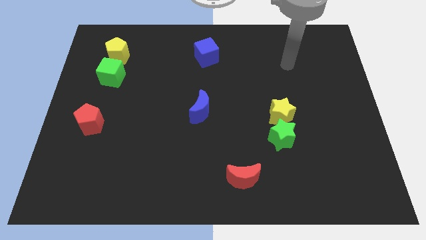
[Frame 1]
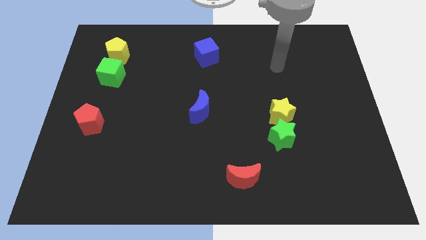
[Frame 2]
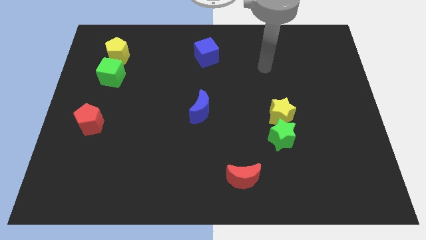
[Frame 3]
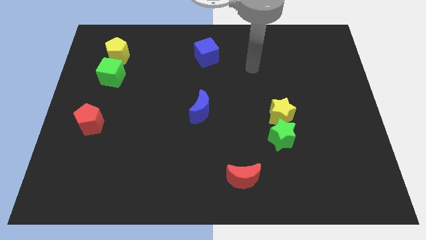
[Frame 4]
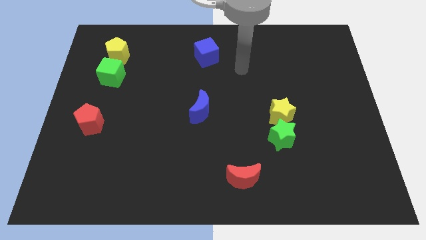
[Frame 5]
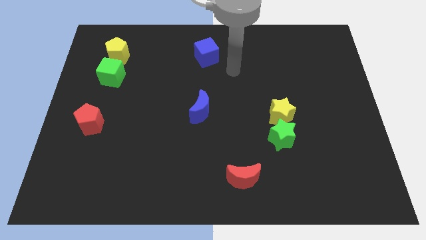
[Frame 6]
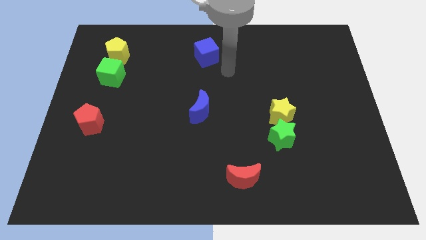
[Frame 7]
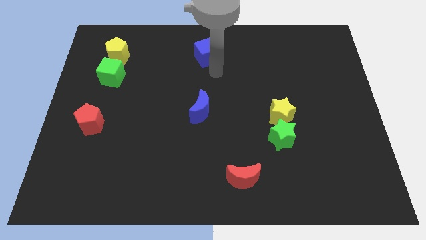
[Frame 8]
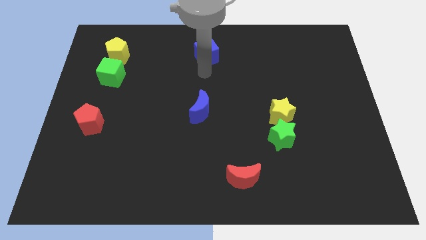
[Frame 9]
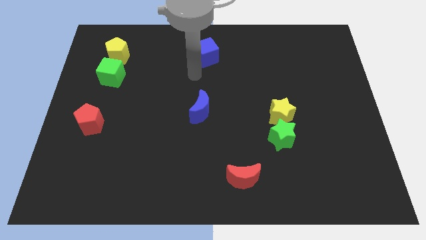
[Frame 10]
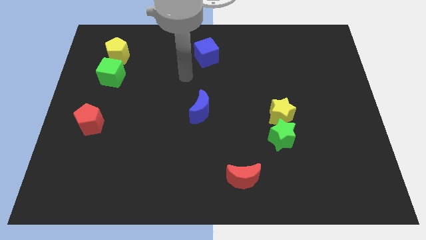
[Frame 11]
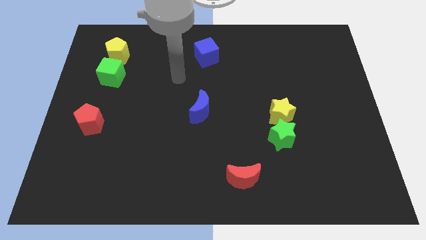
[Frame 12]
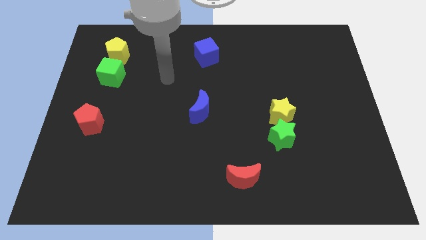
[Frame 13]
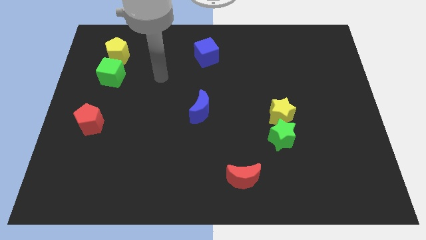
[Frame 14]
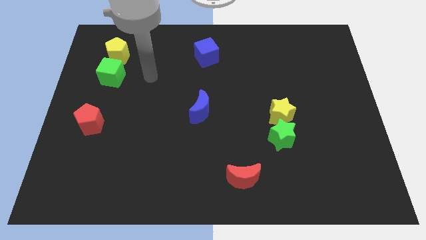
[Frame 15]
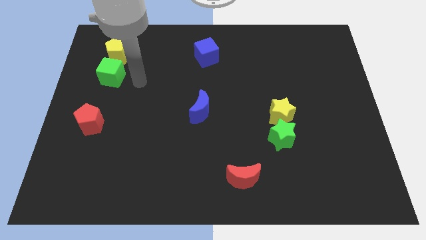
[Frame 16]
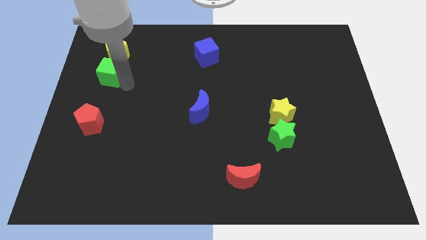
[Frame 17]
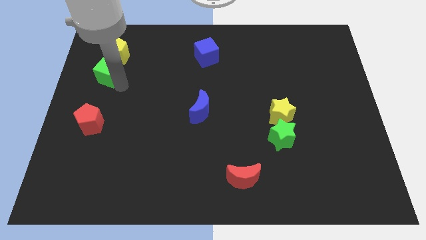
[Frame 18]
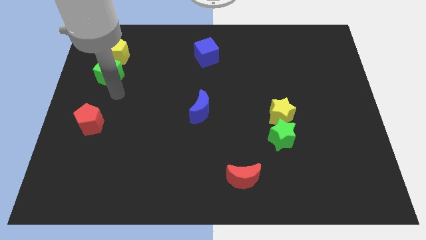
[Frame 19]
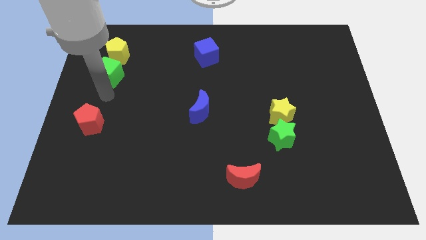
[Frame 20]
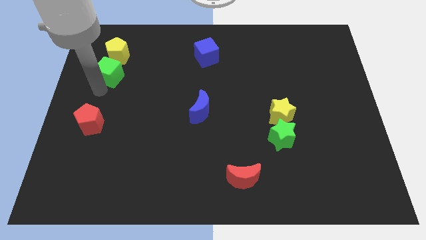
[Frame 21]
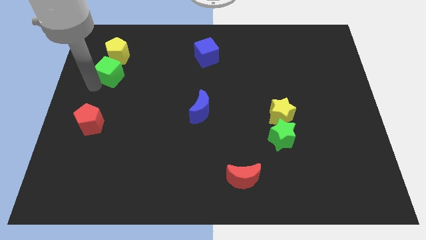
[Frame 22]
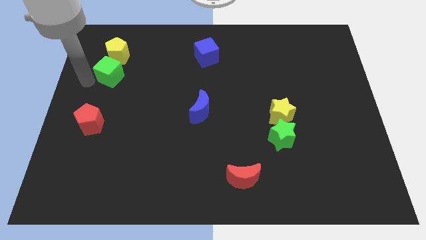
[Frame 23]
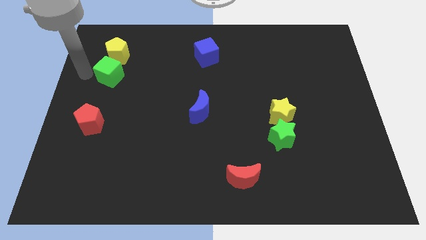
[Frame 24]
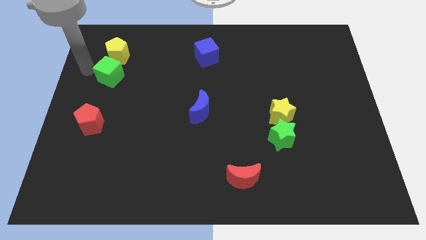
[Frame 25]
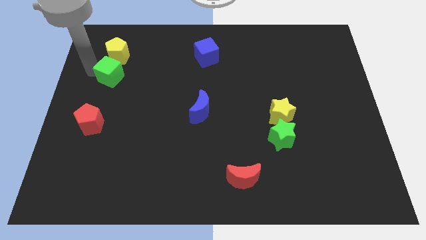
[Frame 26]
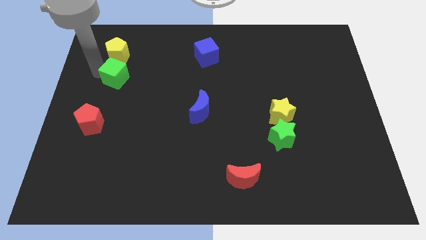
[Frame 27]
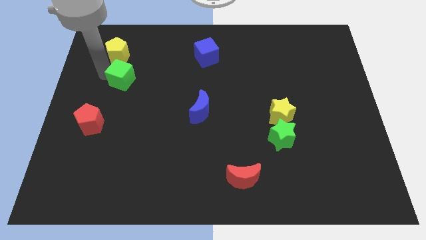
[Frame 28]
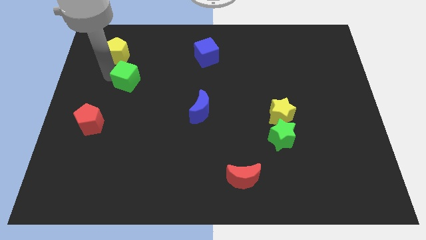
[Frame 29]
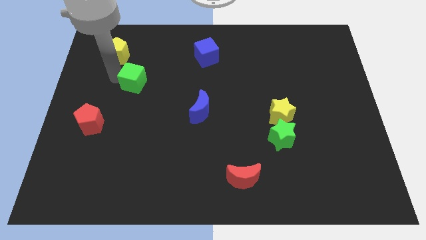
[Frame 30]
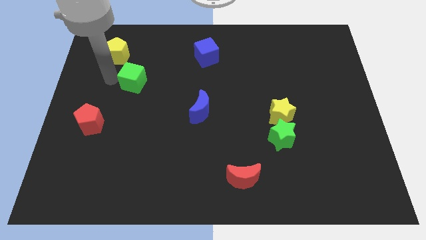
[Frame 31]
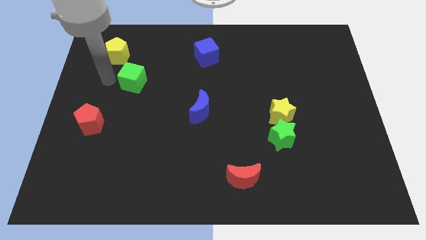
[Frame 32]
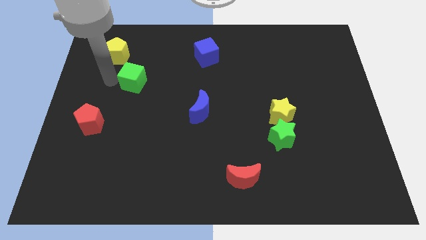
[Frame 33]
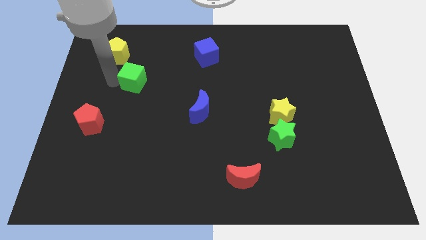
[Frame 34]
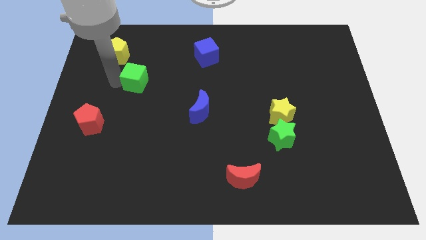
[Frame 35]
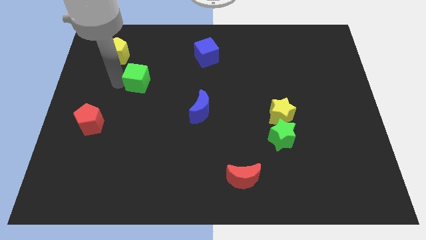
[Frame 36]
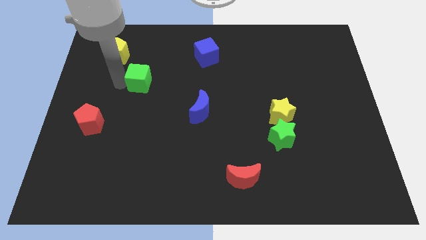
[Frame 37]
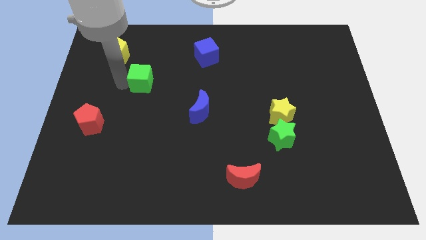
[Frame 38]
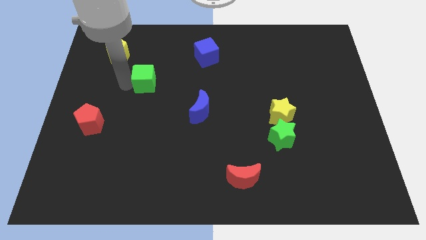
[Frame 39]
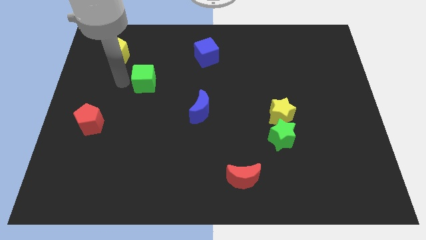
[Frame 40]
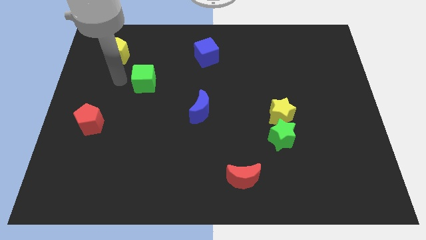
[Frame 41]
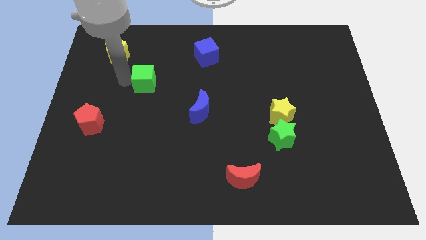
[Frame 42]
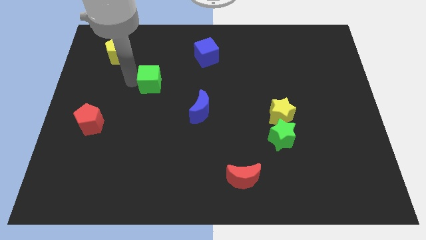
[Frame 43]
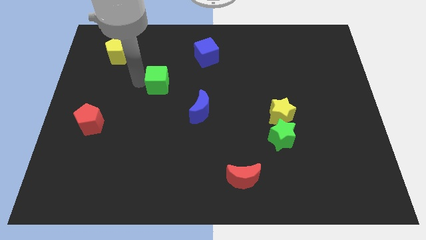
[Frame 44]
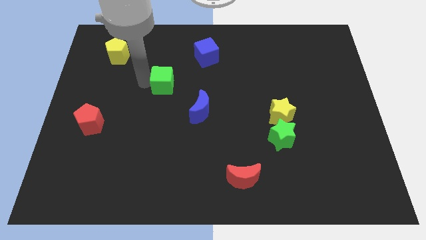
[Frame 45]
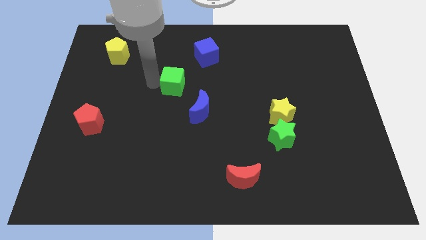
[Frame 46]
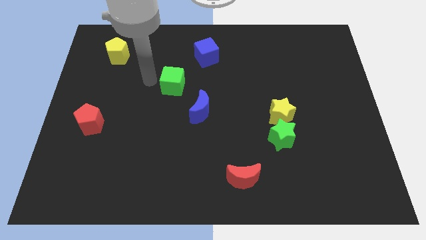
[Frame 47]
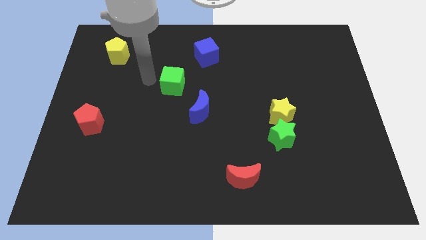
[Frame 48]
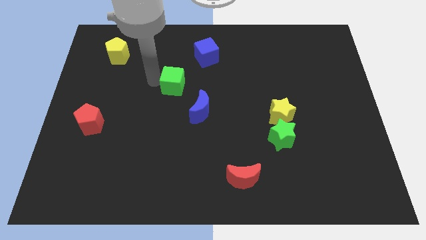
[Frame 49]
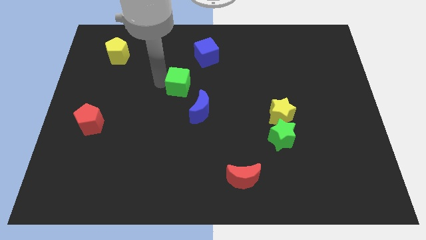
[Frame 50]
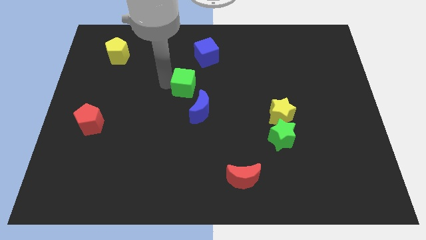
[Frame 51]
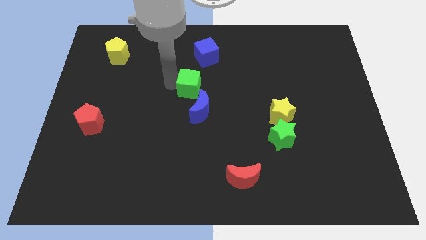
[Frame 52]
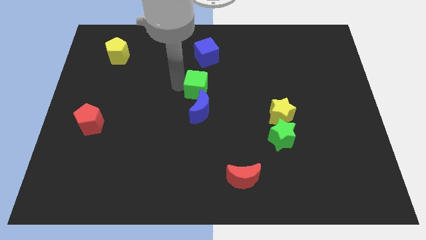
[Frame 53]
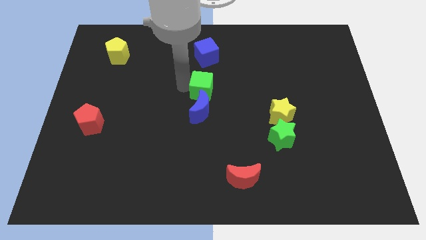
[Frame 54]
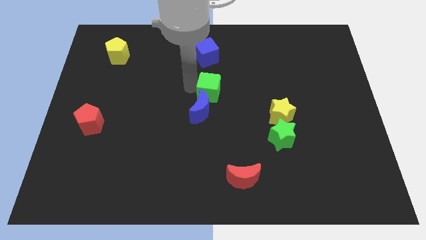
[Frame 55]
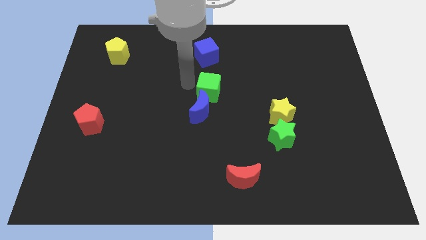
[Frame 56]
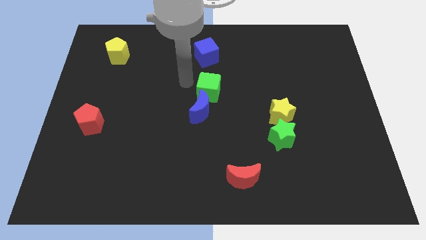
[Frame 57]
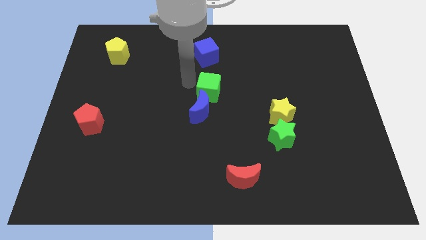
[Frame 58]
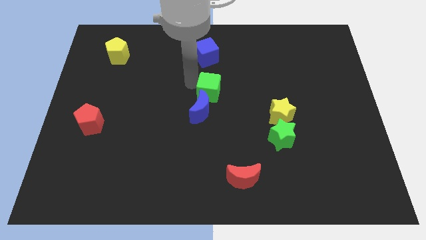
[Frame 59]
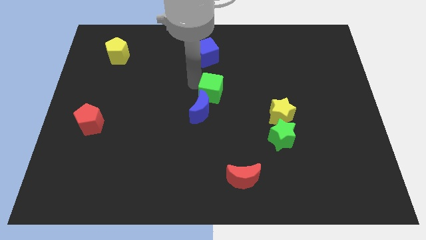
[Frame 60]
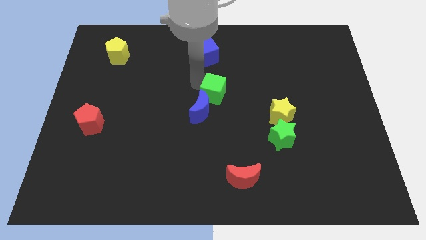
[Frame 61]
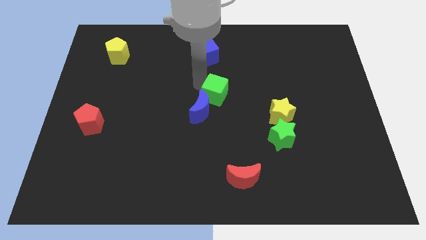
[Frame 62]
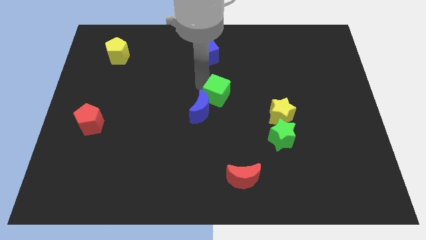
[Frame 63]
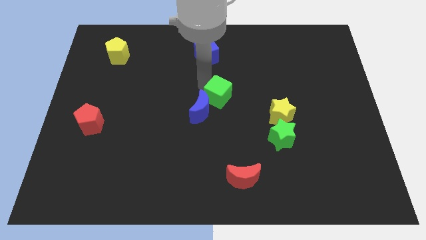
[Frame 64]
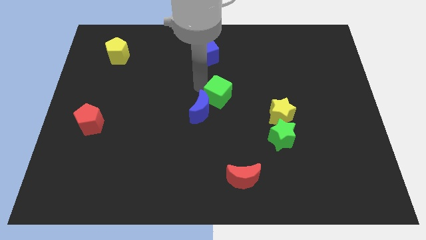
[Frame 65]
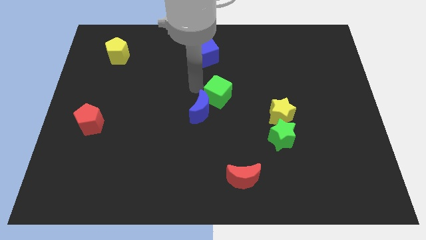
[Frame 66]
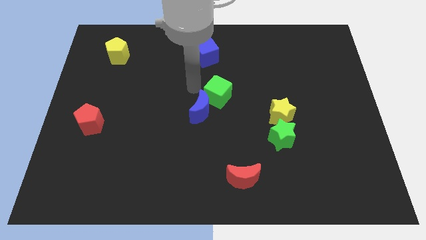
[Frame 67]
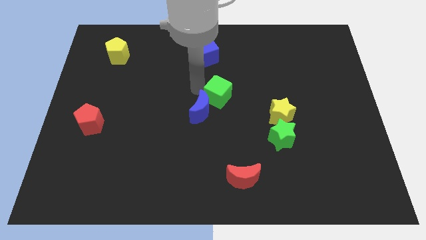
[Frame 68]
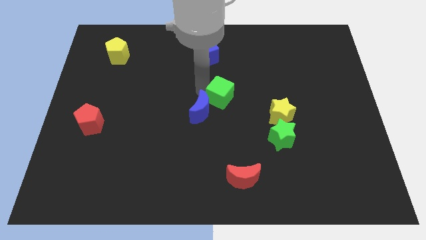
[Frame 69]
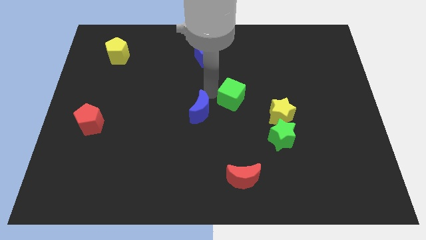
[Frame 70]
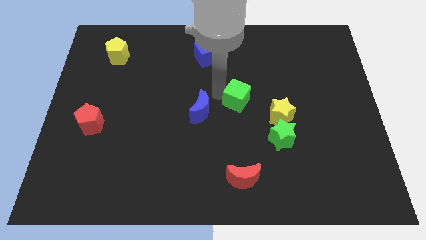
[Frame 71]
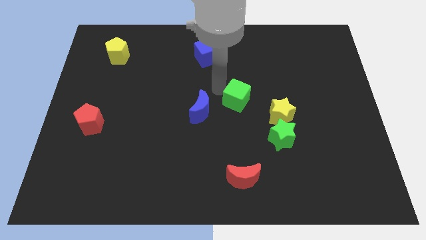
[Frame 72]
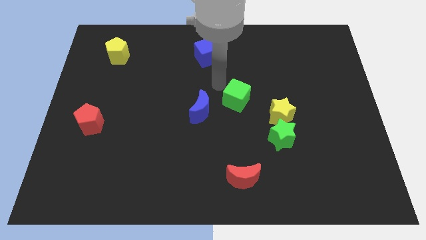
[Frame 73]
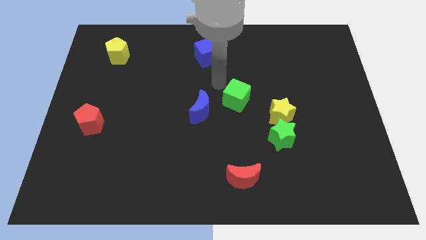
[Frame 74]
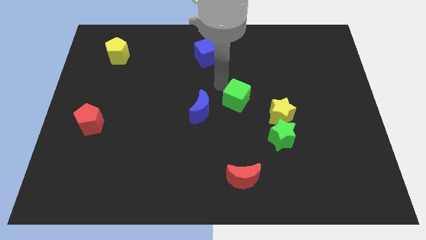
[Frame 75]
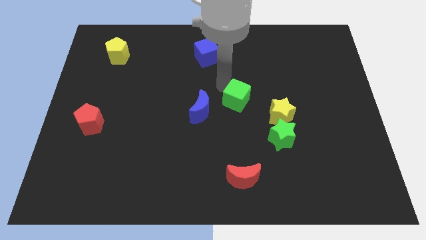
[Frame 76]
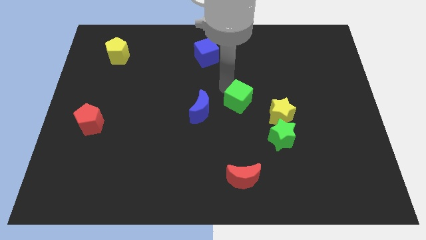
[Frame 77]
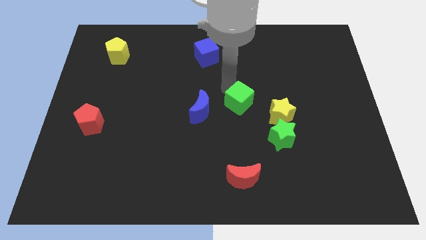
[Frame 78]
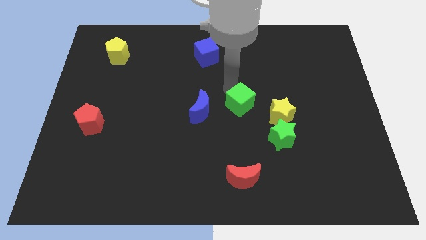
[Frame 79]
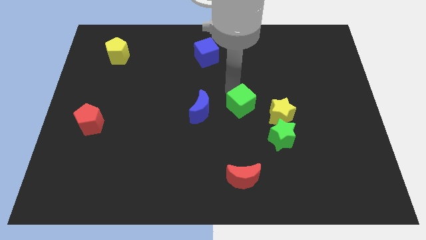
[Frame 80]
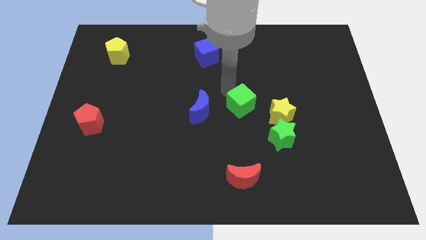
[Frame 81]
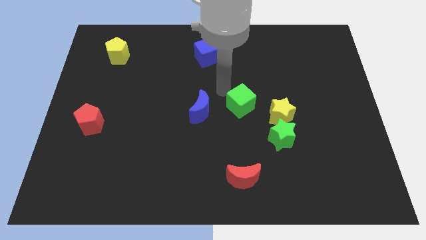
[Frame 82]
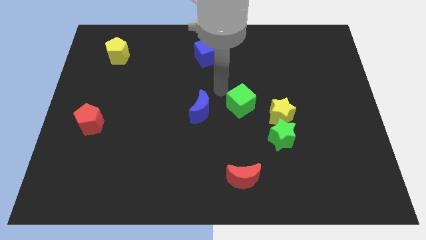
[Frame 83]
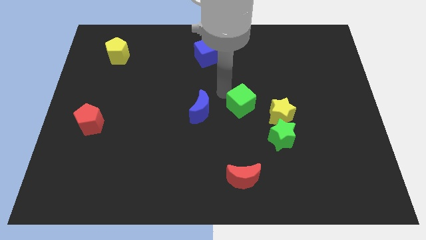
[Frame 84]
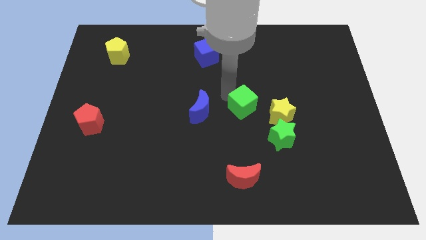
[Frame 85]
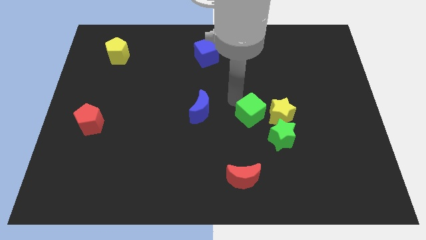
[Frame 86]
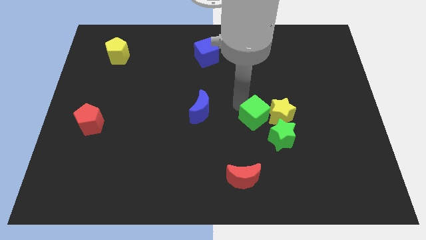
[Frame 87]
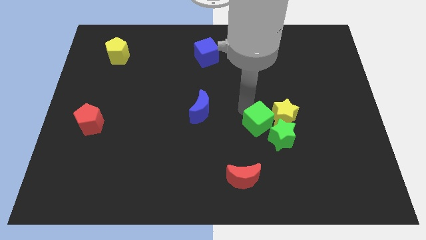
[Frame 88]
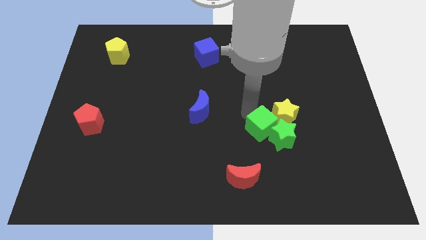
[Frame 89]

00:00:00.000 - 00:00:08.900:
push the green cube close to the green star
